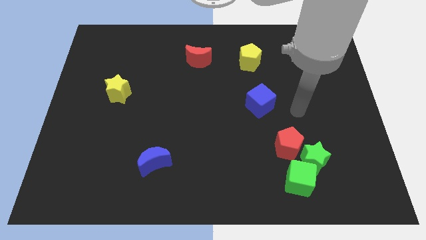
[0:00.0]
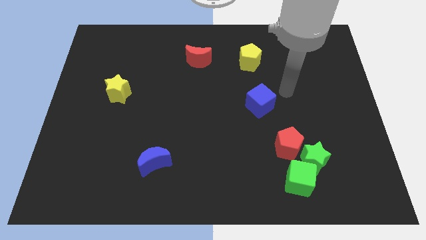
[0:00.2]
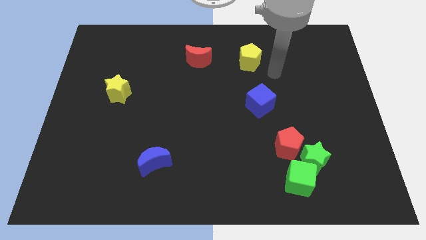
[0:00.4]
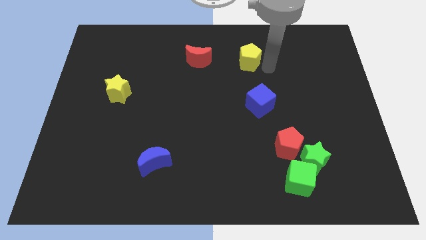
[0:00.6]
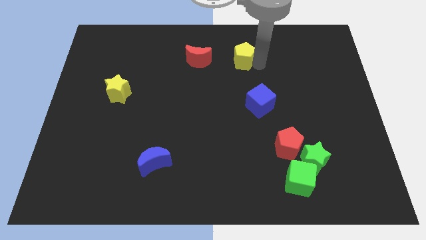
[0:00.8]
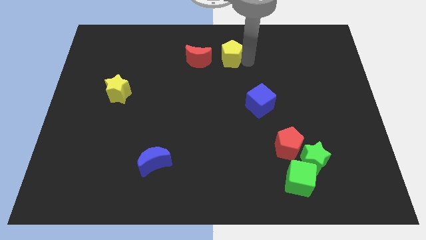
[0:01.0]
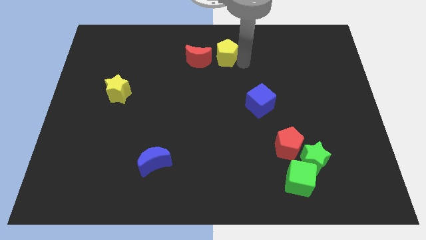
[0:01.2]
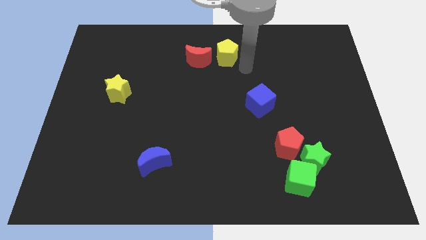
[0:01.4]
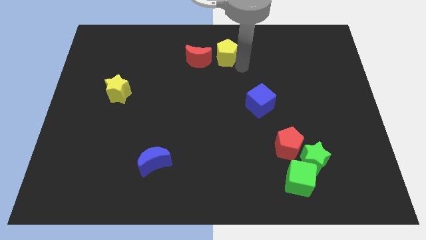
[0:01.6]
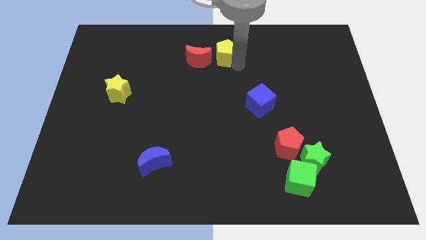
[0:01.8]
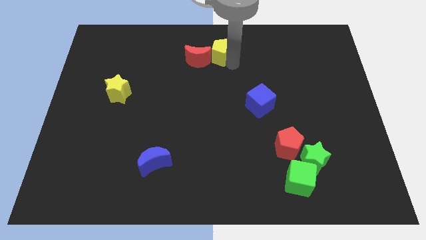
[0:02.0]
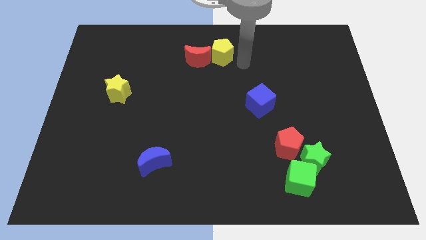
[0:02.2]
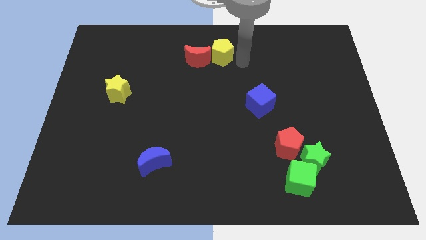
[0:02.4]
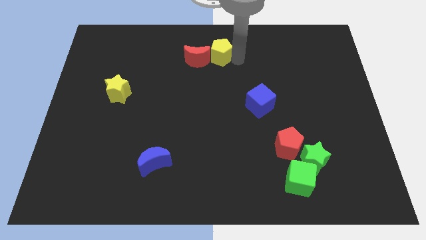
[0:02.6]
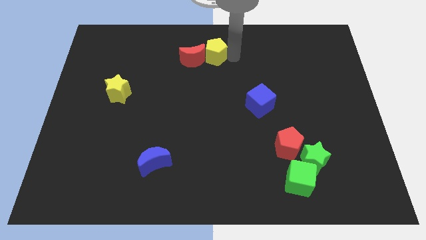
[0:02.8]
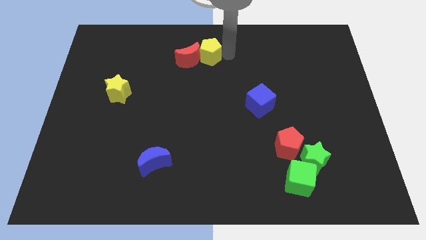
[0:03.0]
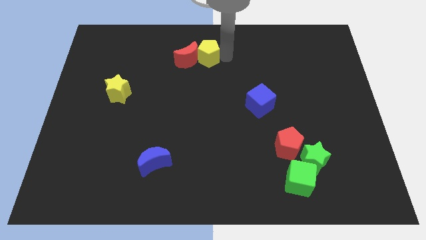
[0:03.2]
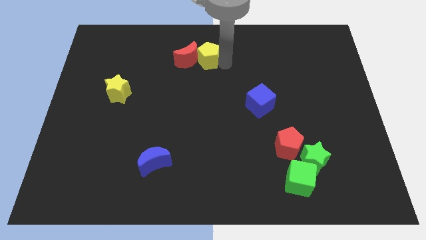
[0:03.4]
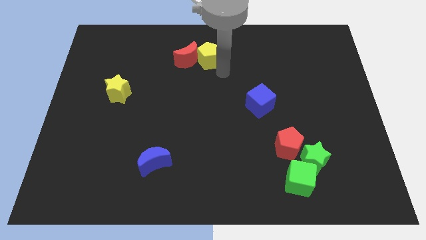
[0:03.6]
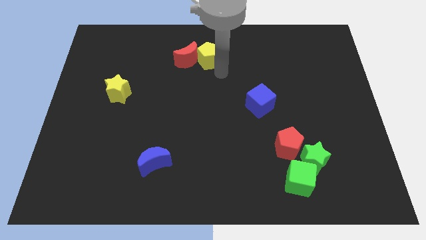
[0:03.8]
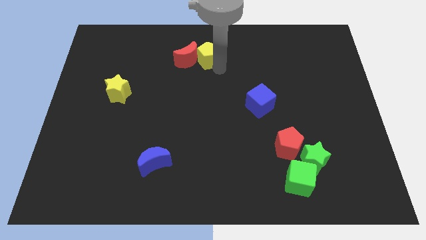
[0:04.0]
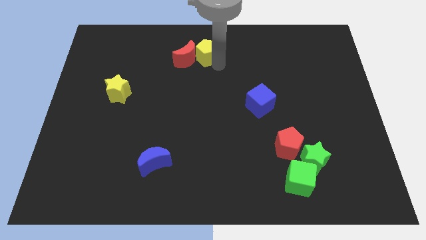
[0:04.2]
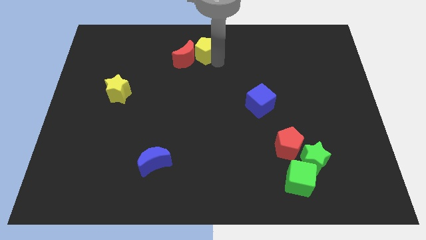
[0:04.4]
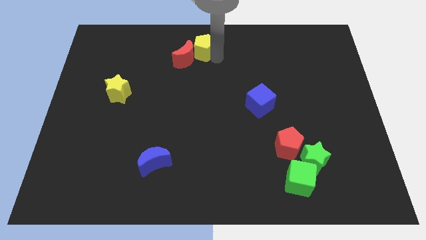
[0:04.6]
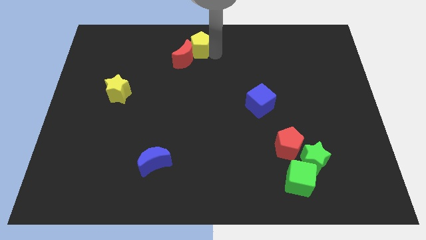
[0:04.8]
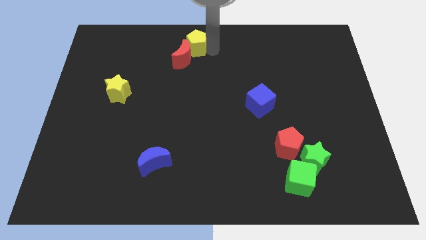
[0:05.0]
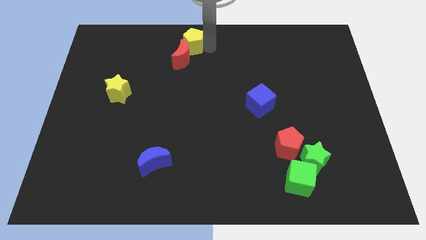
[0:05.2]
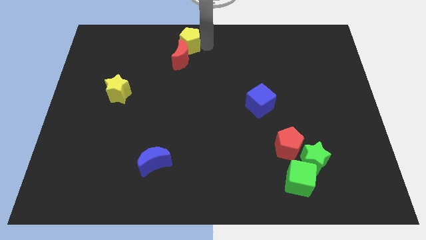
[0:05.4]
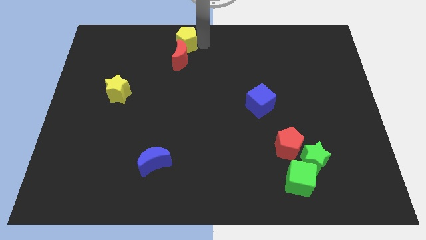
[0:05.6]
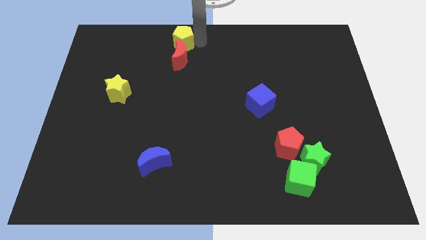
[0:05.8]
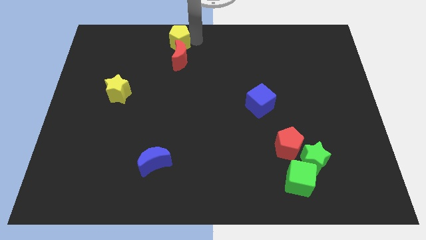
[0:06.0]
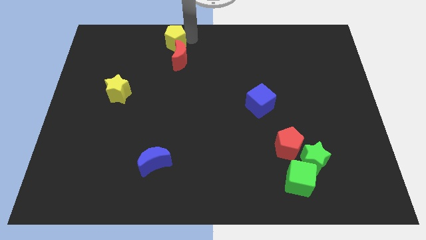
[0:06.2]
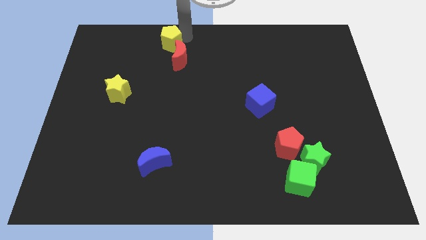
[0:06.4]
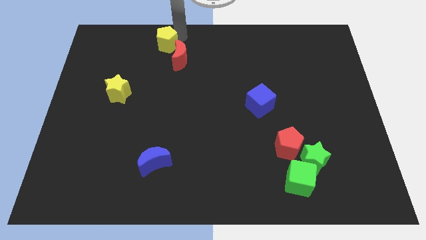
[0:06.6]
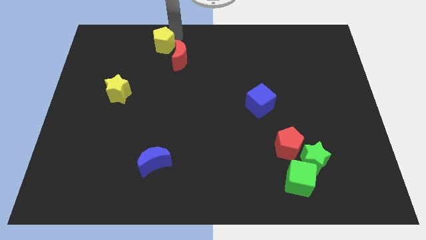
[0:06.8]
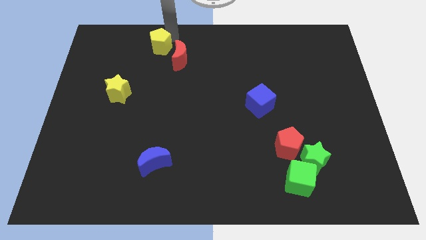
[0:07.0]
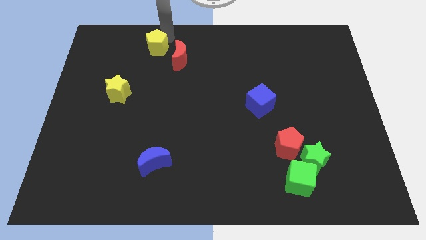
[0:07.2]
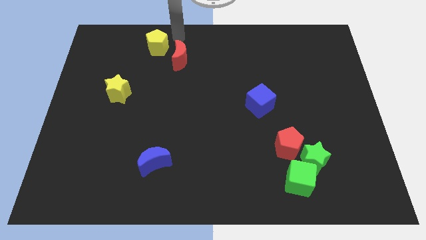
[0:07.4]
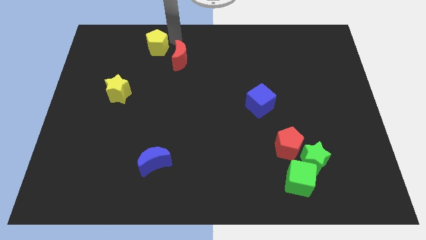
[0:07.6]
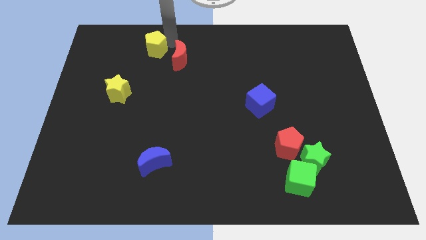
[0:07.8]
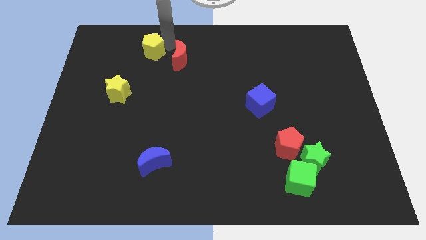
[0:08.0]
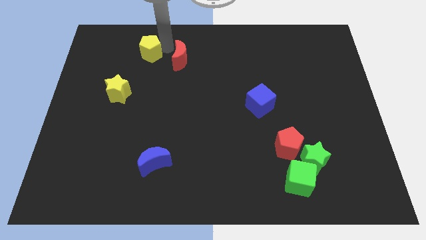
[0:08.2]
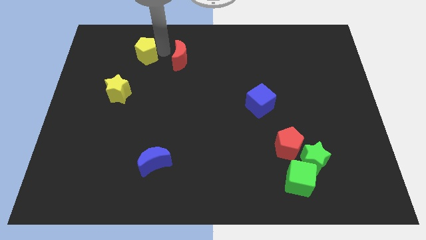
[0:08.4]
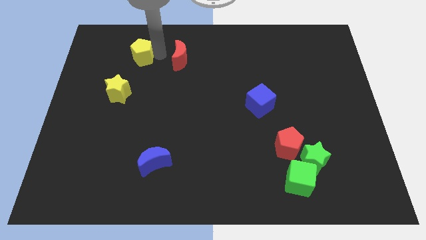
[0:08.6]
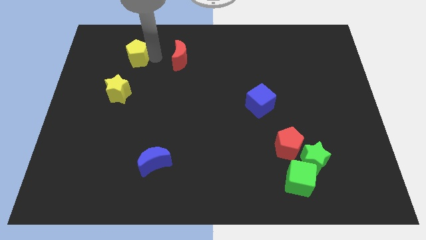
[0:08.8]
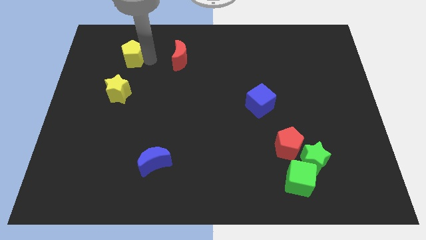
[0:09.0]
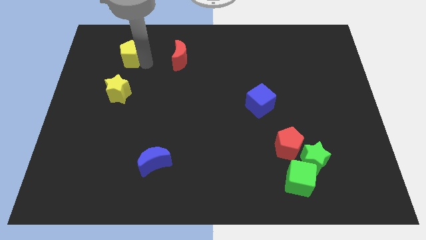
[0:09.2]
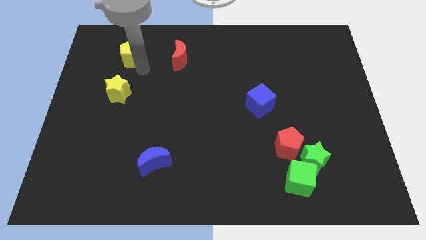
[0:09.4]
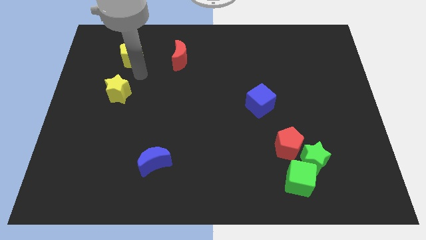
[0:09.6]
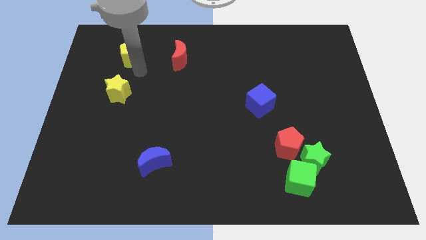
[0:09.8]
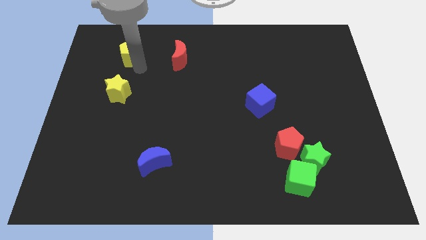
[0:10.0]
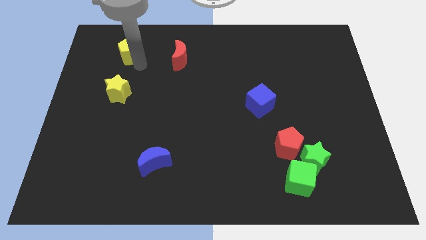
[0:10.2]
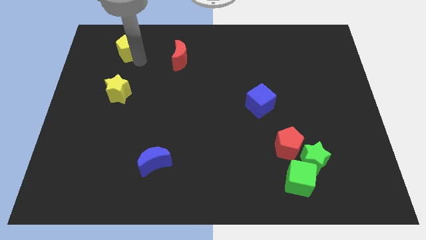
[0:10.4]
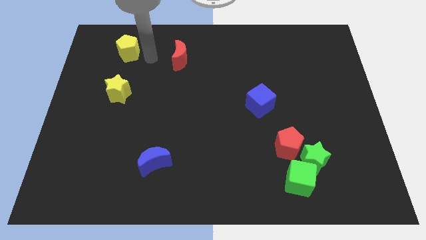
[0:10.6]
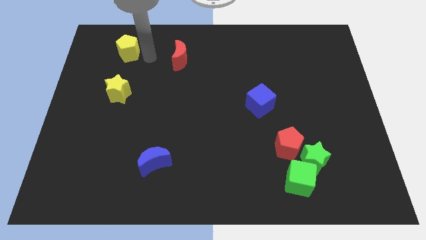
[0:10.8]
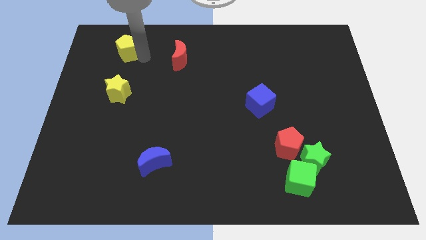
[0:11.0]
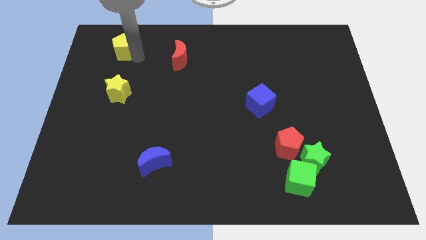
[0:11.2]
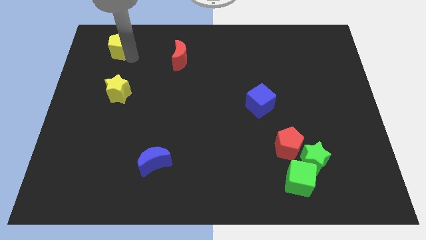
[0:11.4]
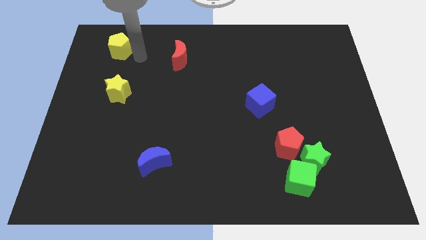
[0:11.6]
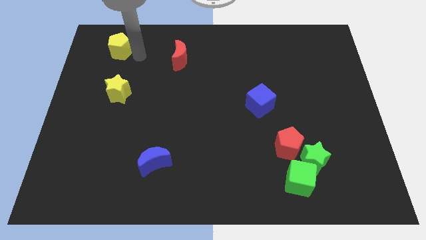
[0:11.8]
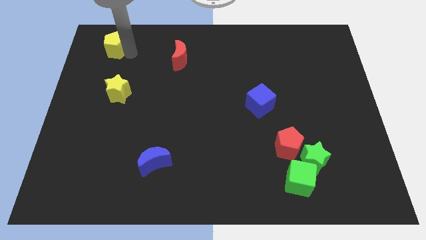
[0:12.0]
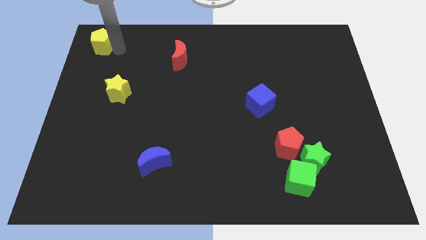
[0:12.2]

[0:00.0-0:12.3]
put the yellow pentagon to the top left of the board
